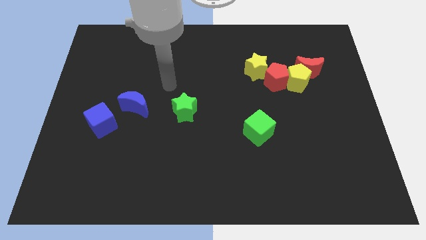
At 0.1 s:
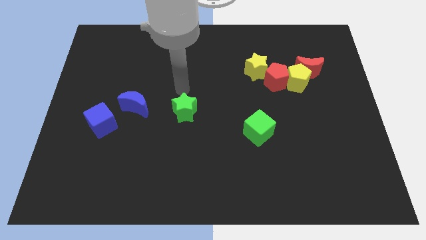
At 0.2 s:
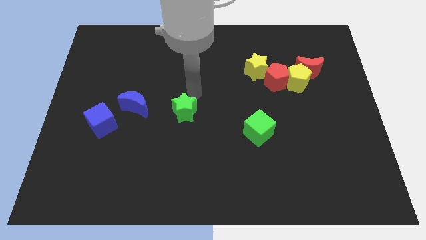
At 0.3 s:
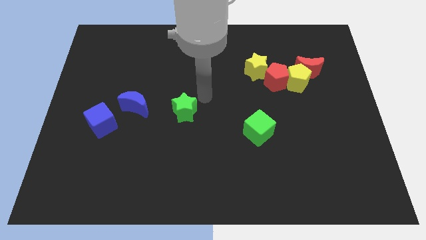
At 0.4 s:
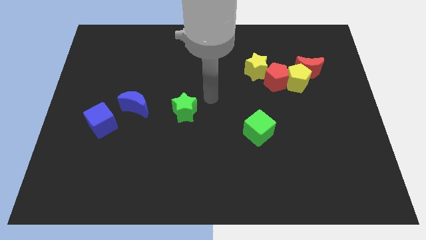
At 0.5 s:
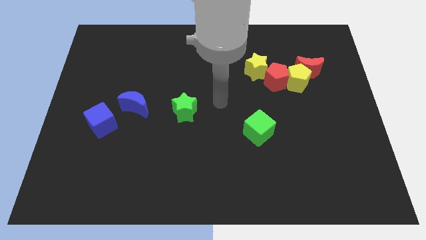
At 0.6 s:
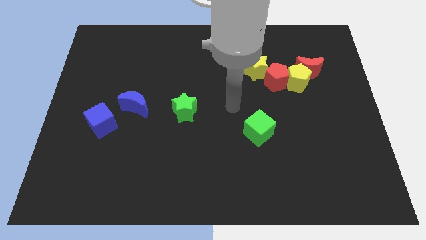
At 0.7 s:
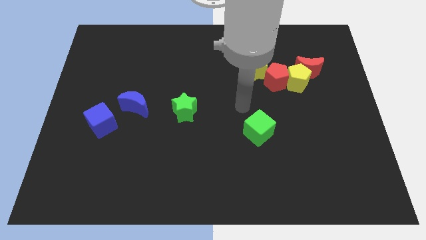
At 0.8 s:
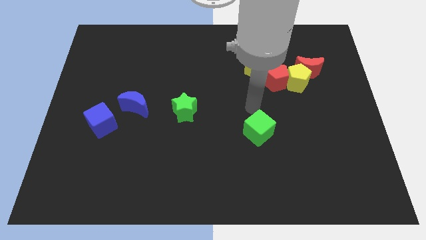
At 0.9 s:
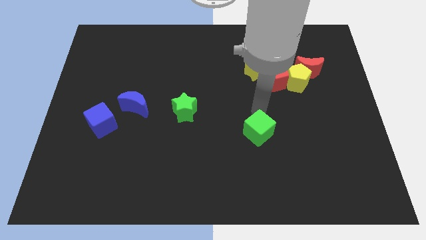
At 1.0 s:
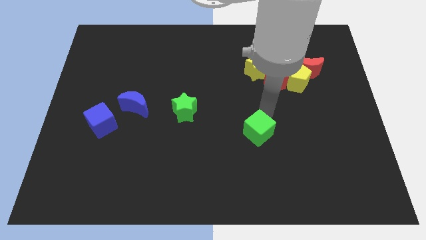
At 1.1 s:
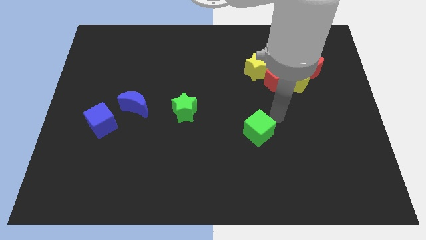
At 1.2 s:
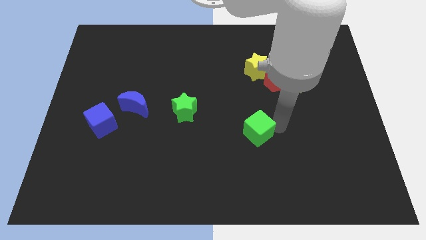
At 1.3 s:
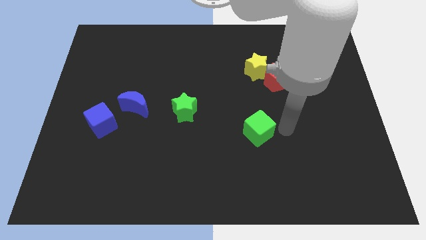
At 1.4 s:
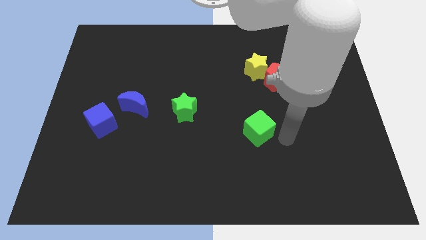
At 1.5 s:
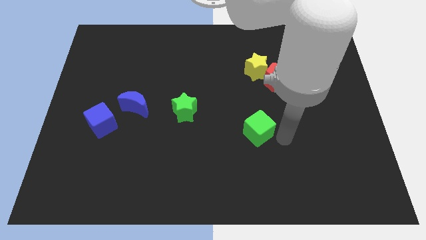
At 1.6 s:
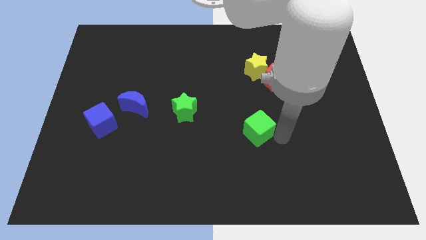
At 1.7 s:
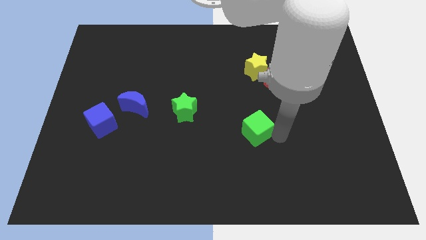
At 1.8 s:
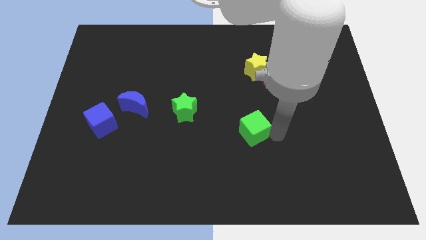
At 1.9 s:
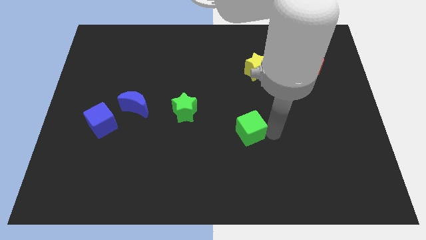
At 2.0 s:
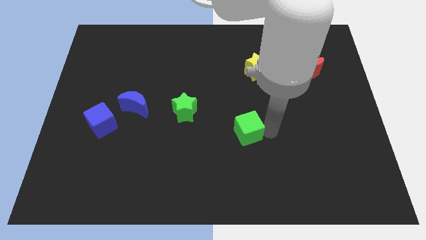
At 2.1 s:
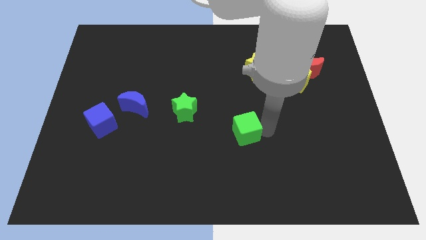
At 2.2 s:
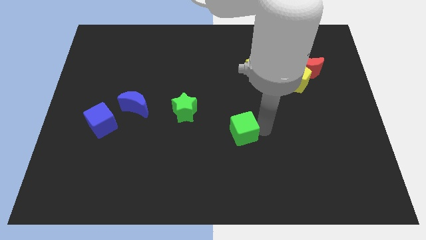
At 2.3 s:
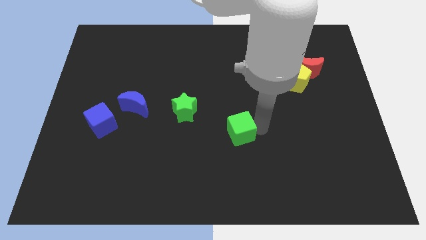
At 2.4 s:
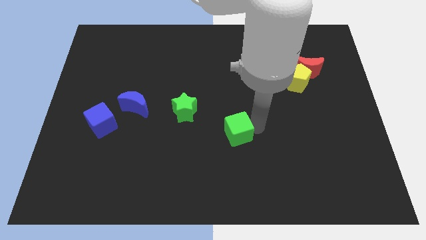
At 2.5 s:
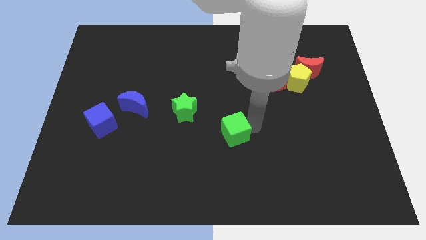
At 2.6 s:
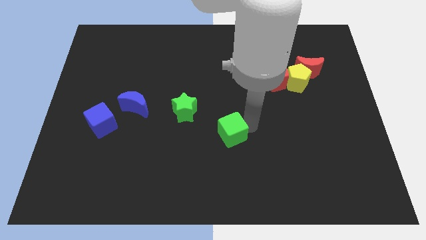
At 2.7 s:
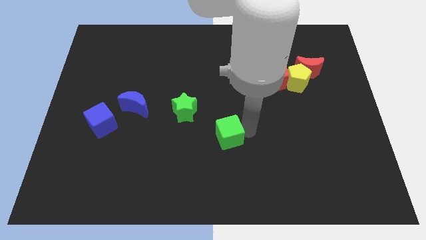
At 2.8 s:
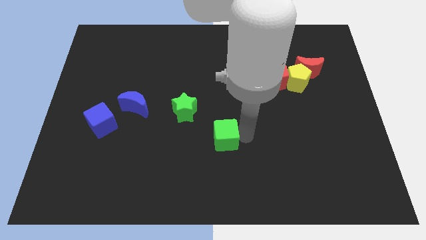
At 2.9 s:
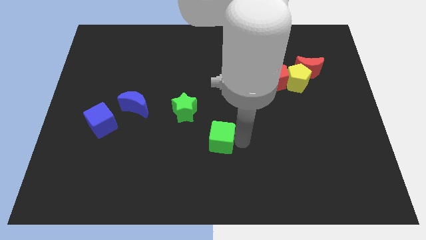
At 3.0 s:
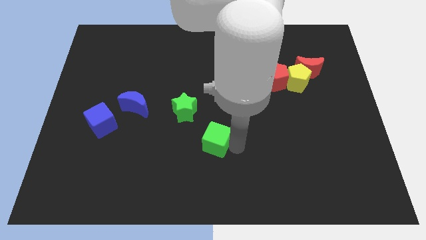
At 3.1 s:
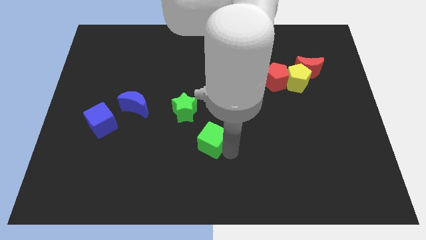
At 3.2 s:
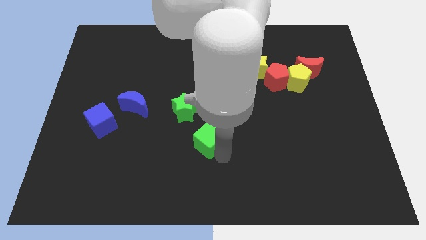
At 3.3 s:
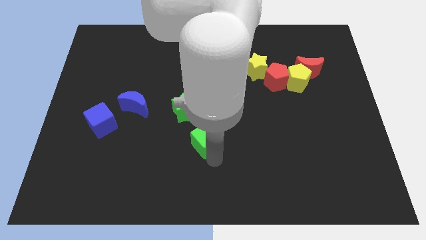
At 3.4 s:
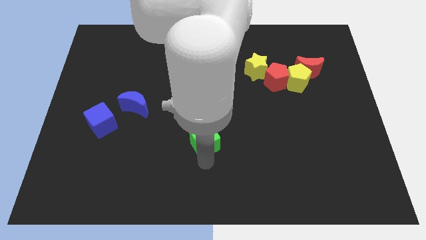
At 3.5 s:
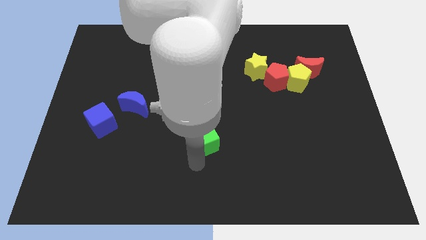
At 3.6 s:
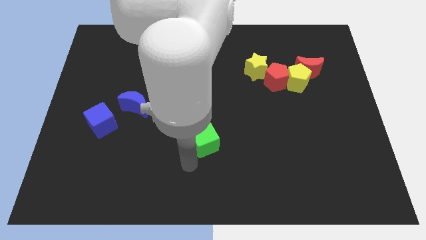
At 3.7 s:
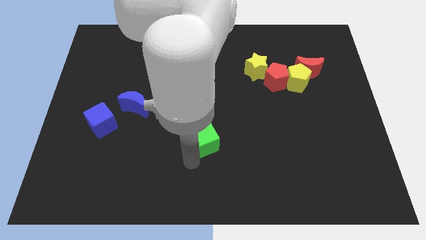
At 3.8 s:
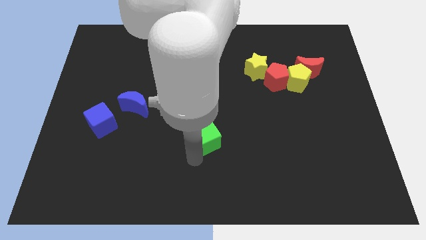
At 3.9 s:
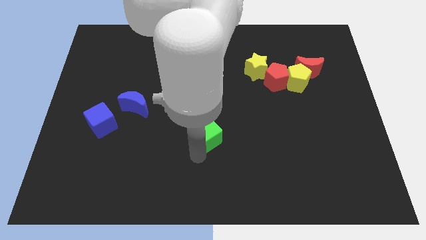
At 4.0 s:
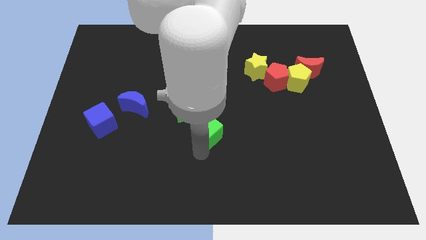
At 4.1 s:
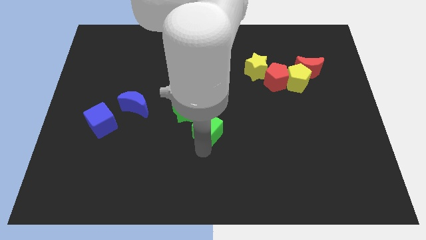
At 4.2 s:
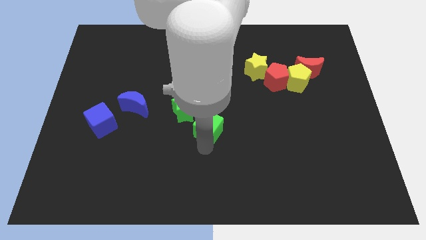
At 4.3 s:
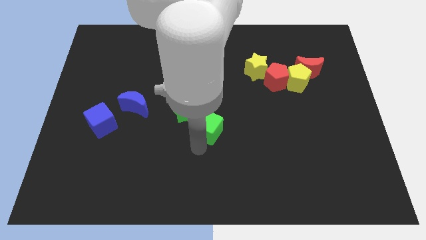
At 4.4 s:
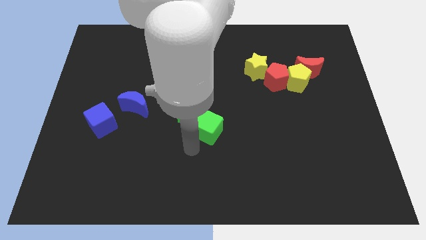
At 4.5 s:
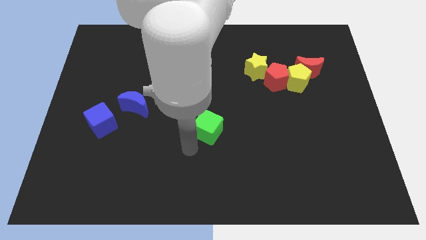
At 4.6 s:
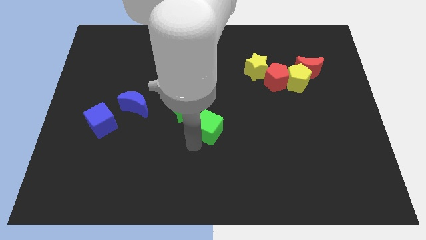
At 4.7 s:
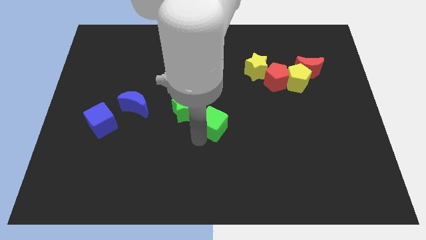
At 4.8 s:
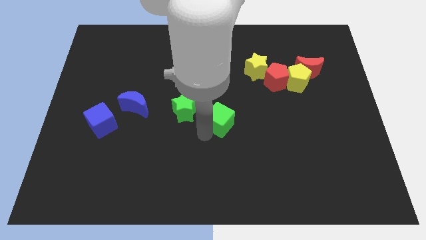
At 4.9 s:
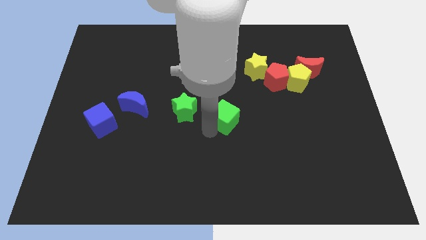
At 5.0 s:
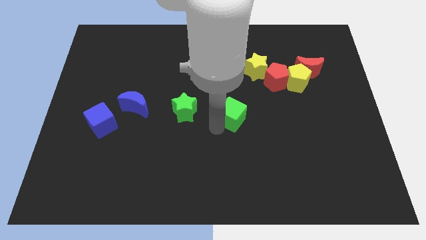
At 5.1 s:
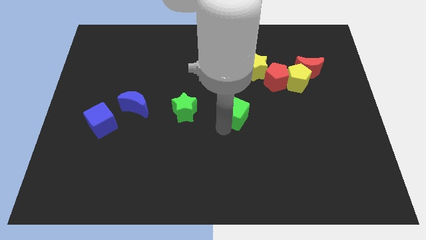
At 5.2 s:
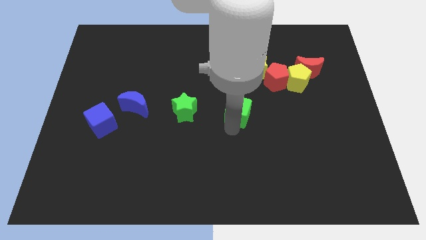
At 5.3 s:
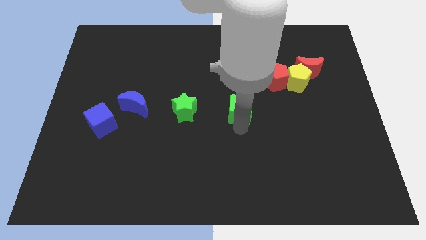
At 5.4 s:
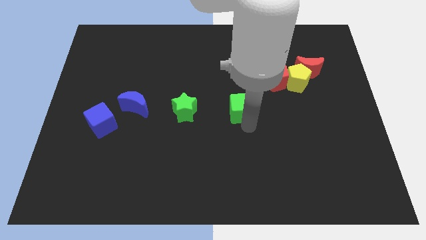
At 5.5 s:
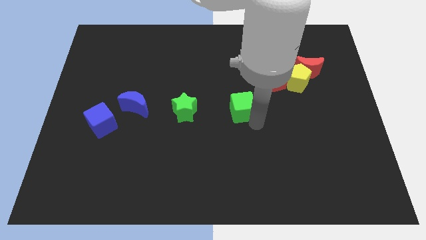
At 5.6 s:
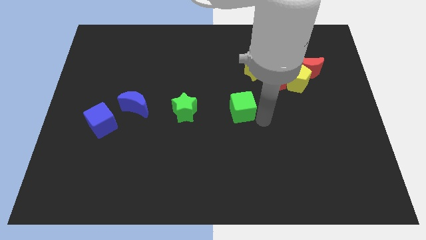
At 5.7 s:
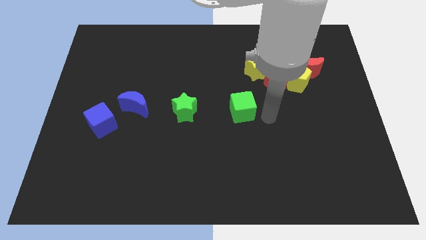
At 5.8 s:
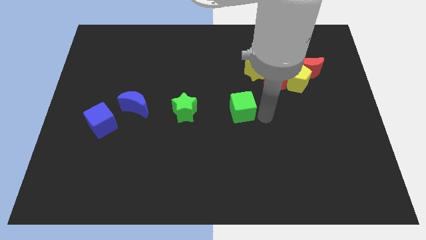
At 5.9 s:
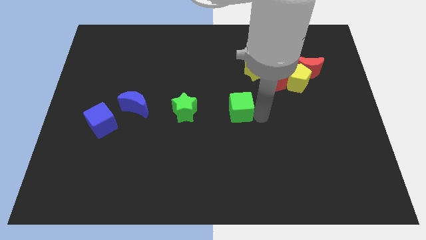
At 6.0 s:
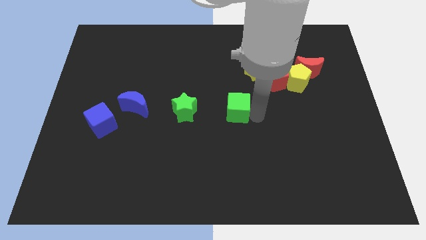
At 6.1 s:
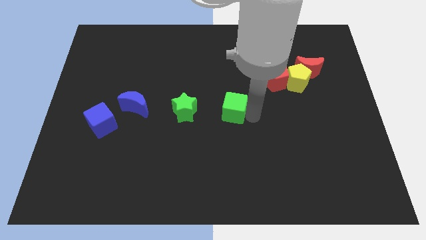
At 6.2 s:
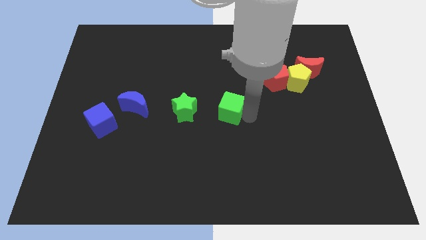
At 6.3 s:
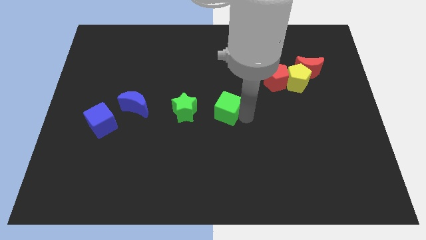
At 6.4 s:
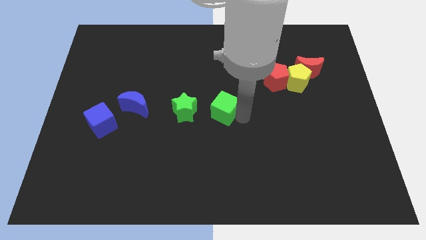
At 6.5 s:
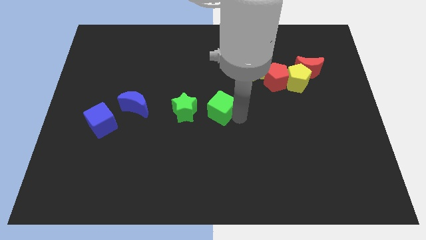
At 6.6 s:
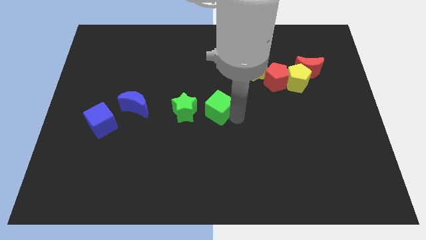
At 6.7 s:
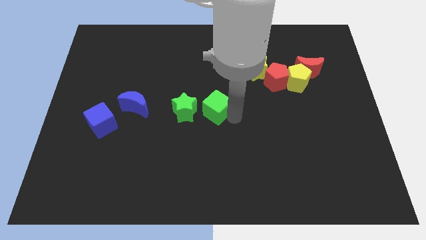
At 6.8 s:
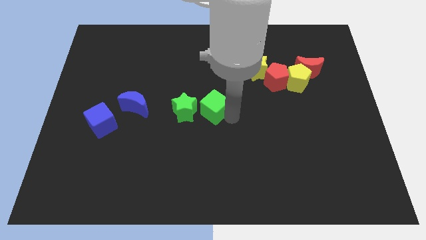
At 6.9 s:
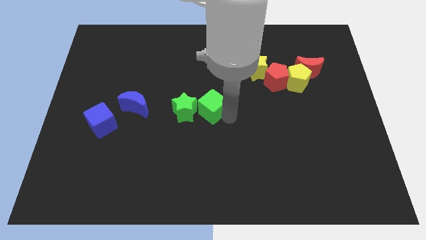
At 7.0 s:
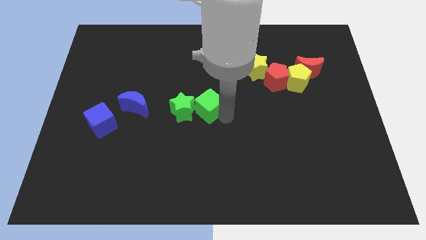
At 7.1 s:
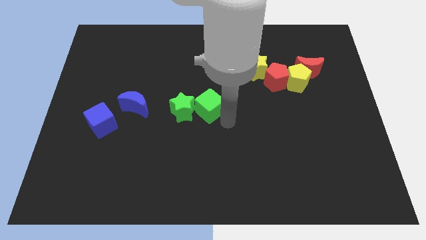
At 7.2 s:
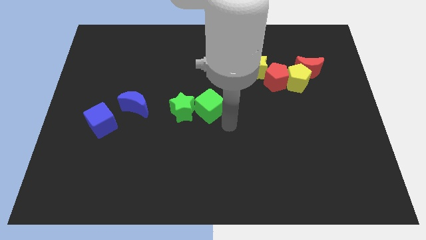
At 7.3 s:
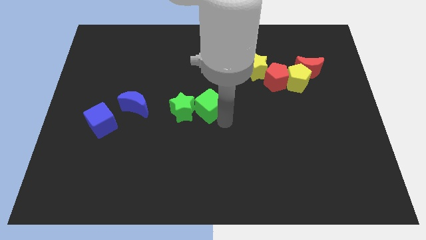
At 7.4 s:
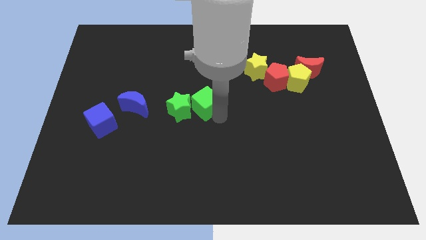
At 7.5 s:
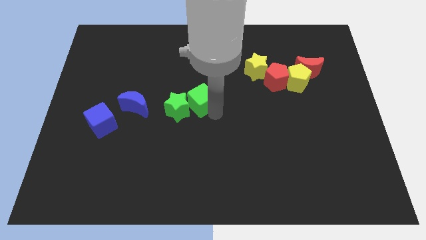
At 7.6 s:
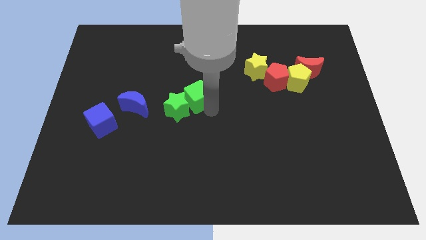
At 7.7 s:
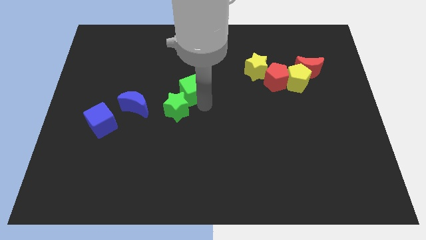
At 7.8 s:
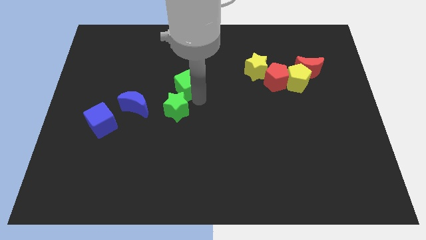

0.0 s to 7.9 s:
push the green cube up and left diagonally

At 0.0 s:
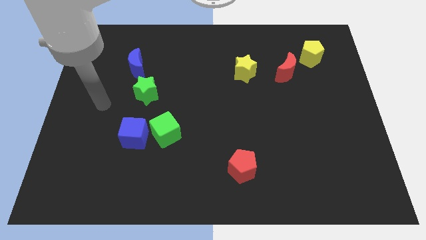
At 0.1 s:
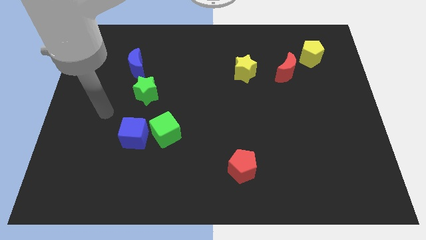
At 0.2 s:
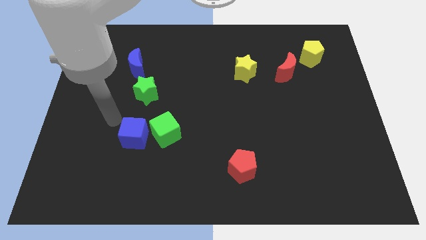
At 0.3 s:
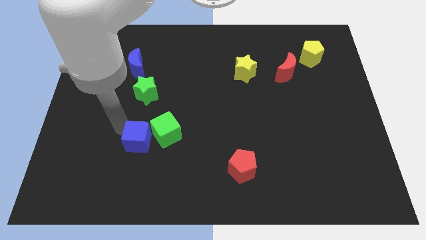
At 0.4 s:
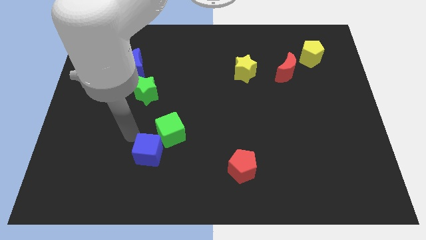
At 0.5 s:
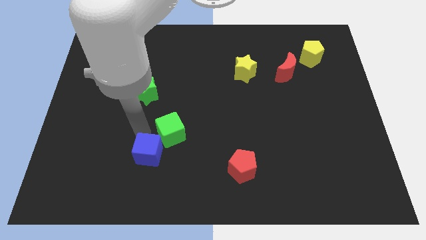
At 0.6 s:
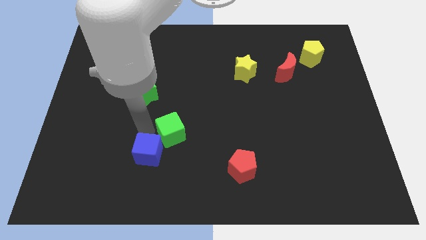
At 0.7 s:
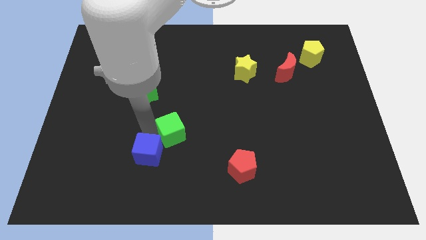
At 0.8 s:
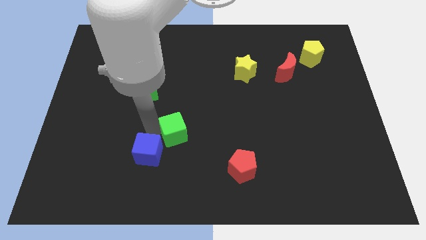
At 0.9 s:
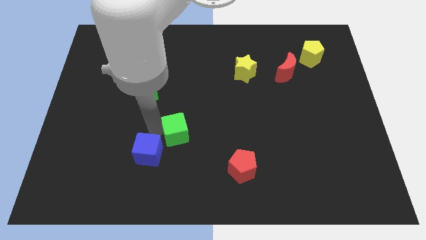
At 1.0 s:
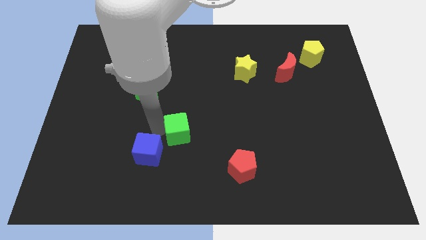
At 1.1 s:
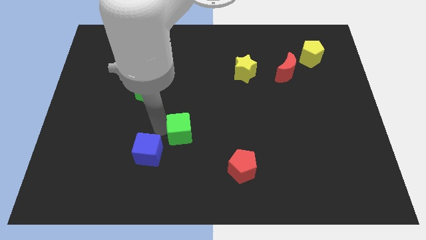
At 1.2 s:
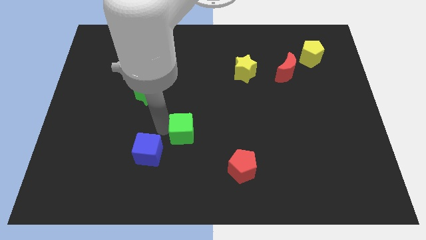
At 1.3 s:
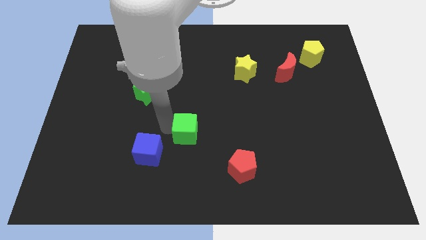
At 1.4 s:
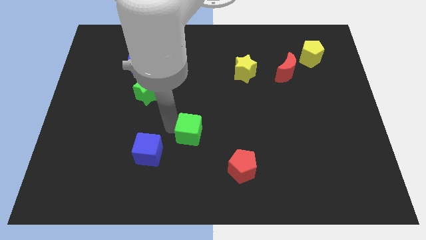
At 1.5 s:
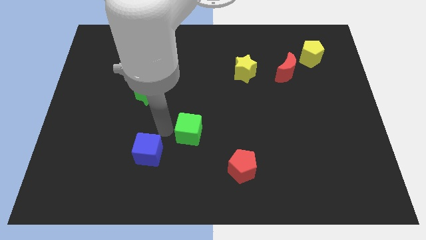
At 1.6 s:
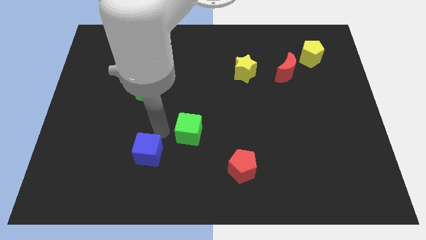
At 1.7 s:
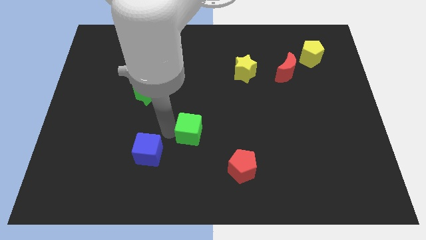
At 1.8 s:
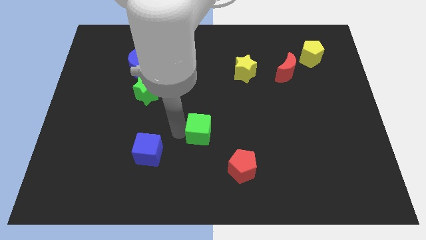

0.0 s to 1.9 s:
slightly slide the green cube right
